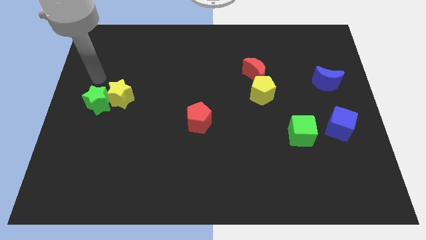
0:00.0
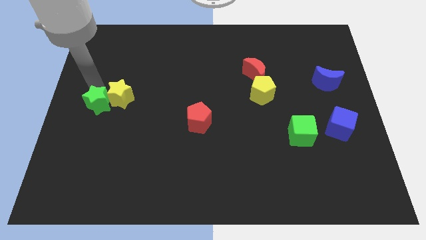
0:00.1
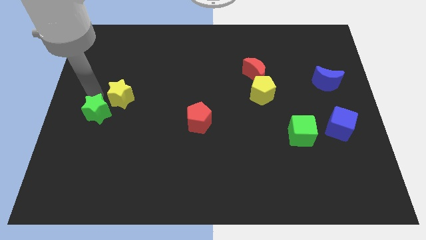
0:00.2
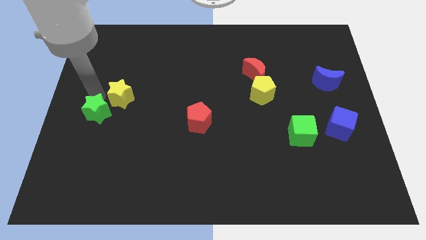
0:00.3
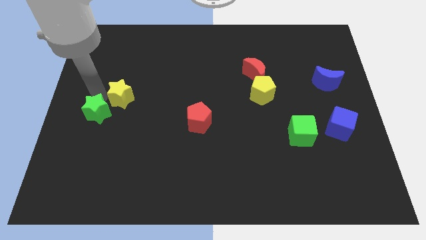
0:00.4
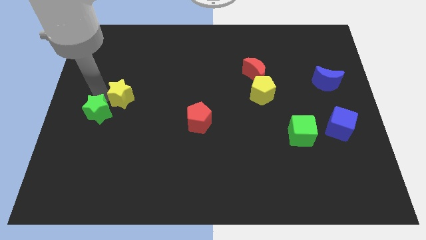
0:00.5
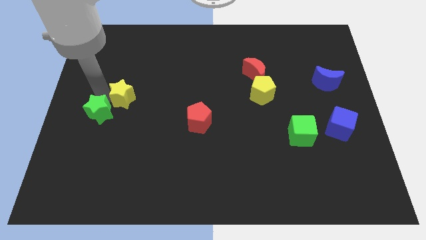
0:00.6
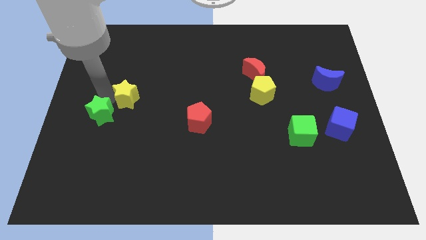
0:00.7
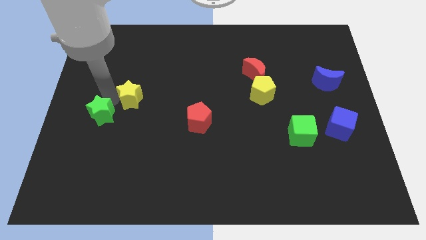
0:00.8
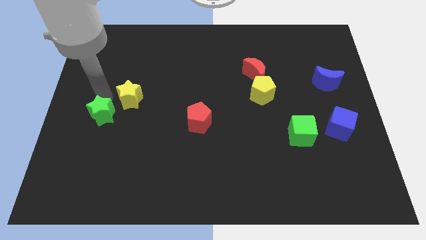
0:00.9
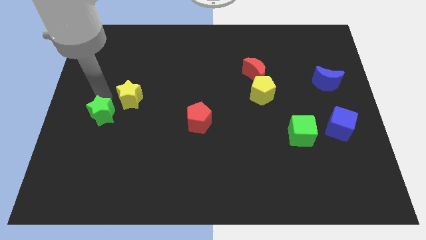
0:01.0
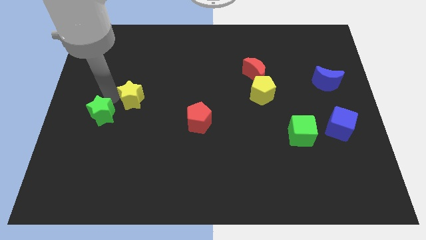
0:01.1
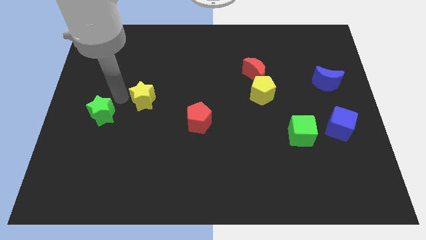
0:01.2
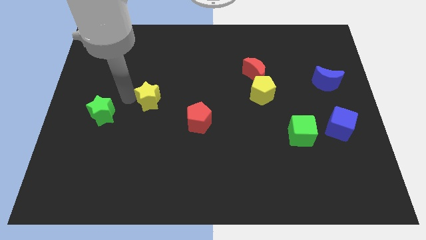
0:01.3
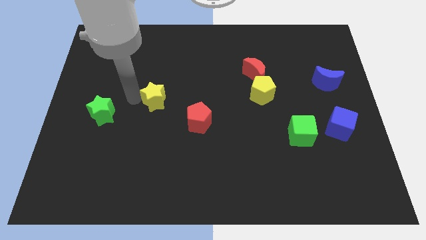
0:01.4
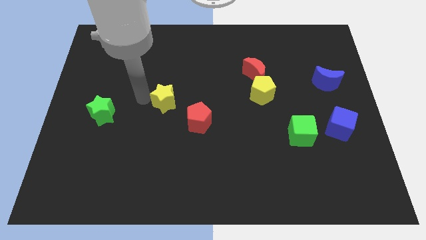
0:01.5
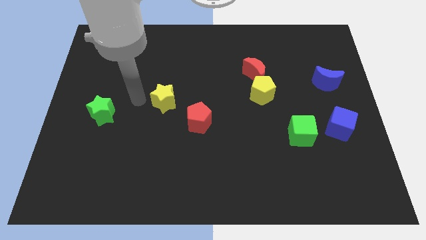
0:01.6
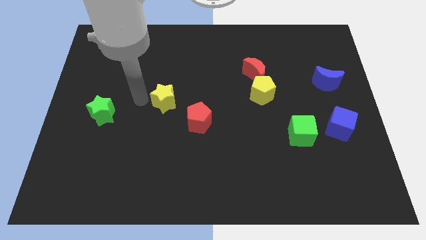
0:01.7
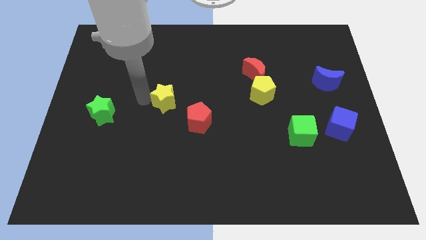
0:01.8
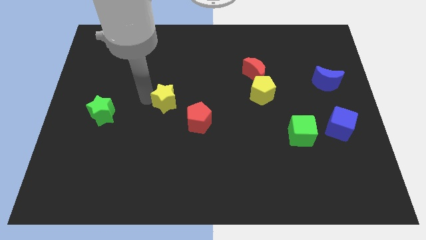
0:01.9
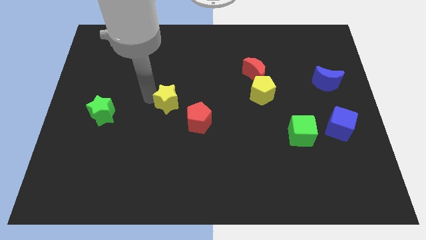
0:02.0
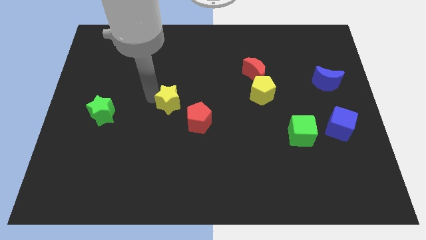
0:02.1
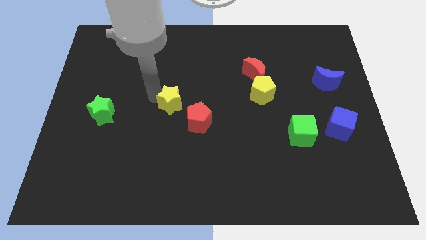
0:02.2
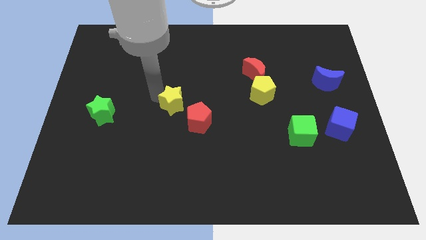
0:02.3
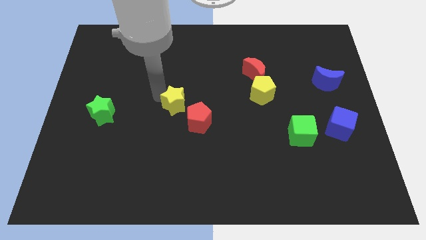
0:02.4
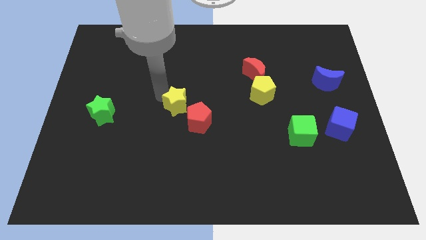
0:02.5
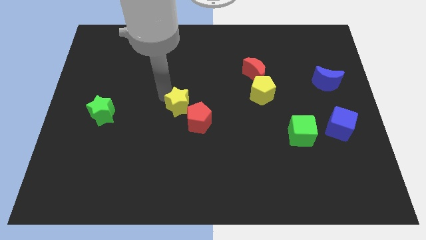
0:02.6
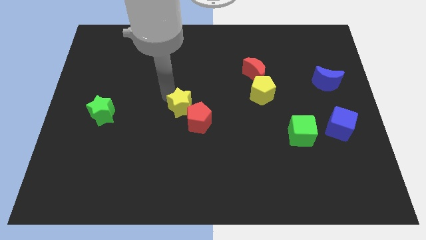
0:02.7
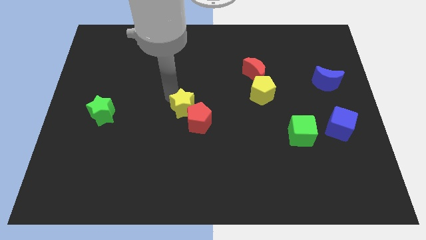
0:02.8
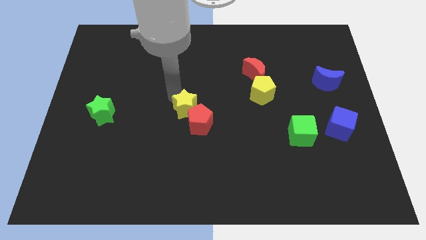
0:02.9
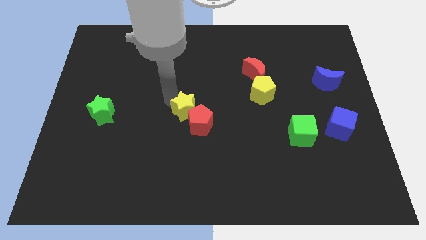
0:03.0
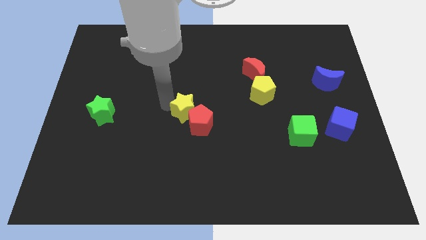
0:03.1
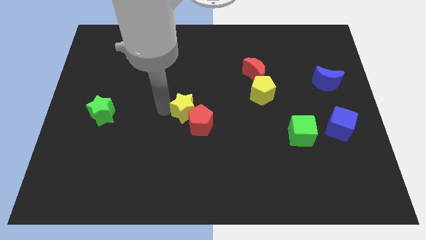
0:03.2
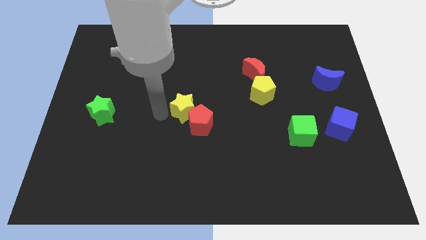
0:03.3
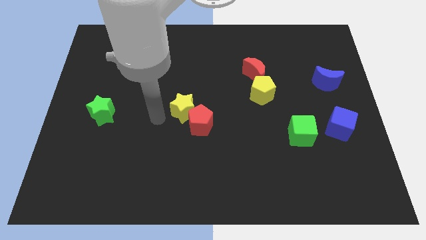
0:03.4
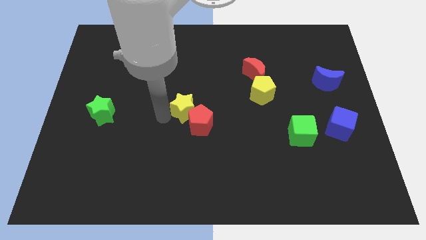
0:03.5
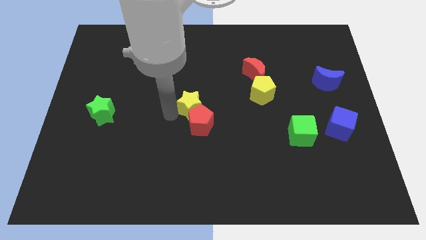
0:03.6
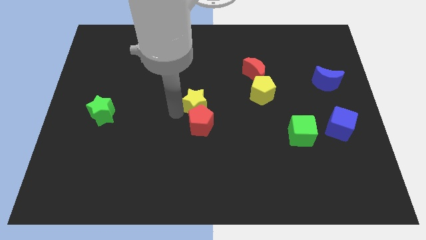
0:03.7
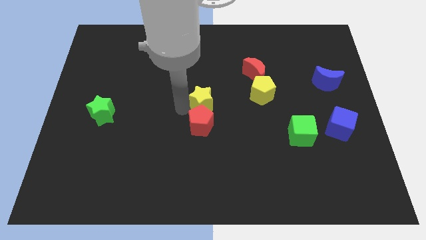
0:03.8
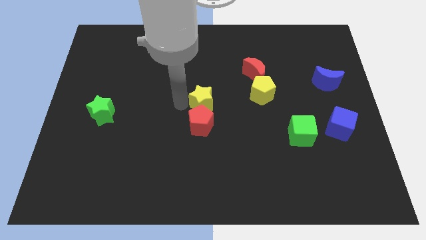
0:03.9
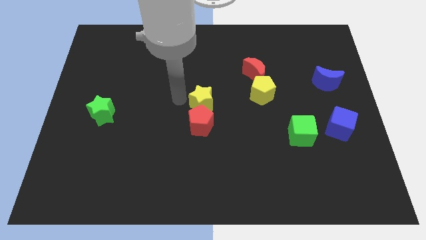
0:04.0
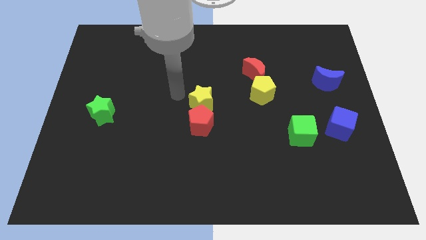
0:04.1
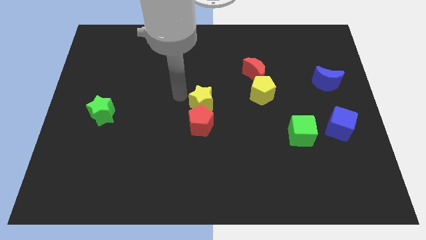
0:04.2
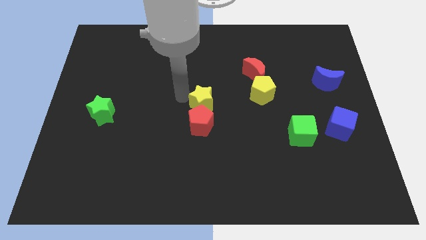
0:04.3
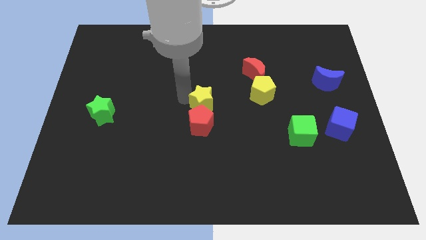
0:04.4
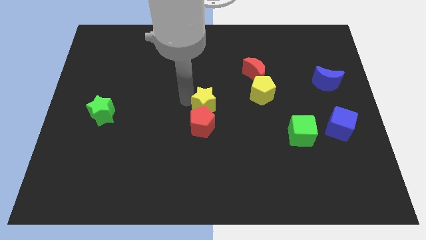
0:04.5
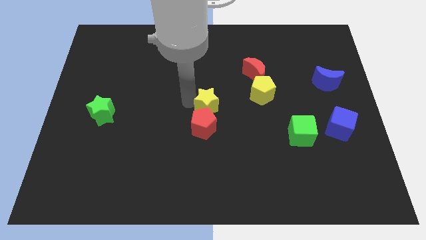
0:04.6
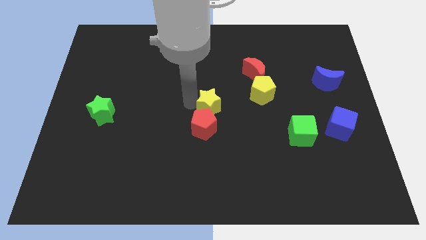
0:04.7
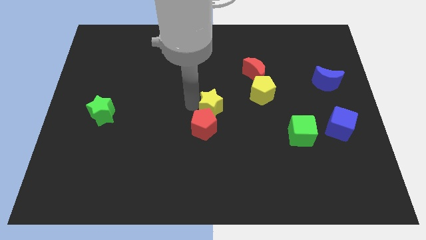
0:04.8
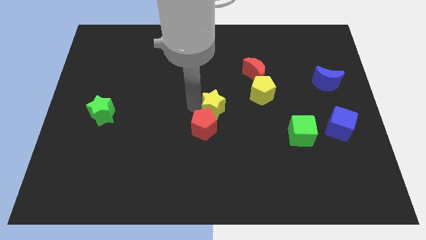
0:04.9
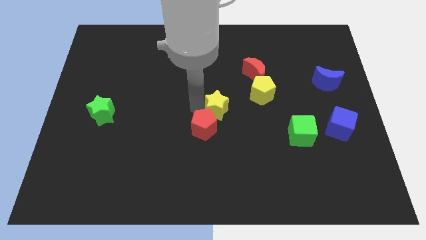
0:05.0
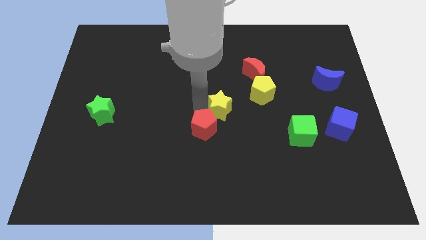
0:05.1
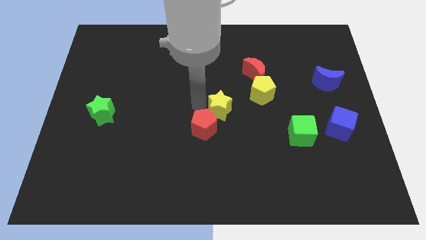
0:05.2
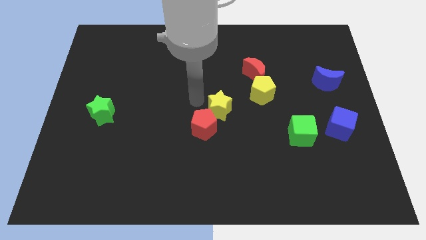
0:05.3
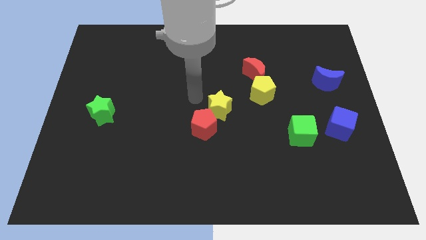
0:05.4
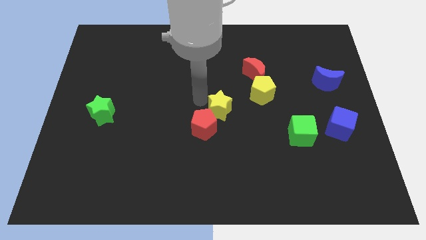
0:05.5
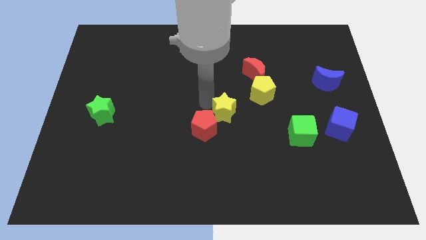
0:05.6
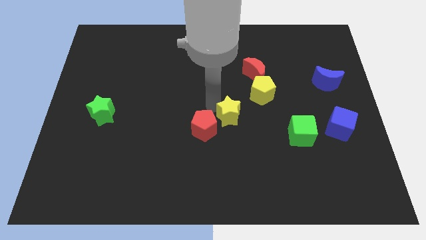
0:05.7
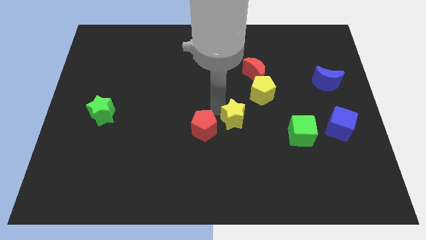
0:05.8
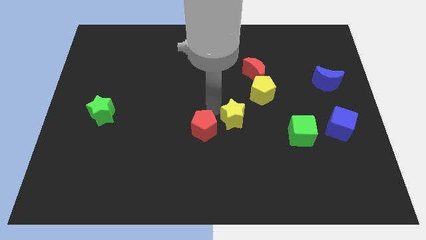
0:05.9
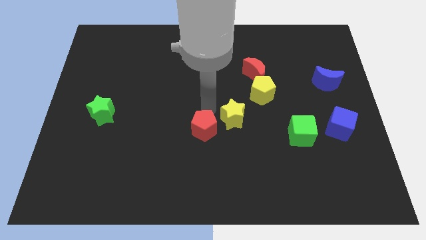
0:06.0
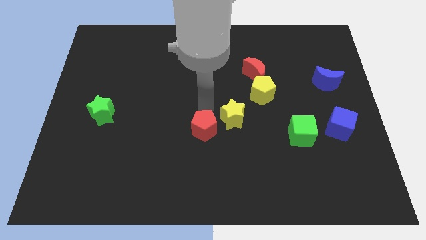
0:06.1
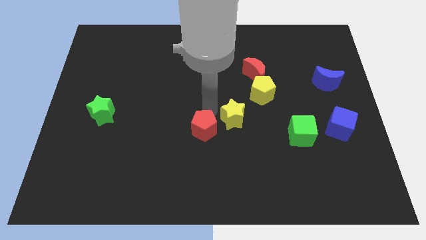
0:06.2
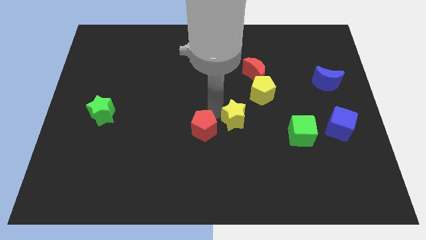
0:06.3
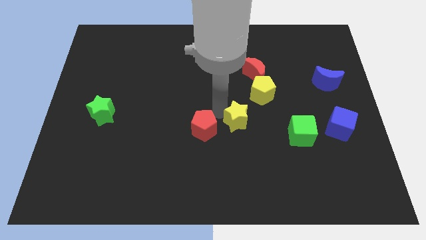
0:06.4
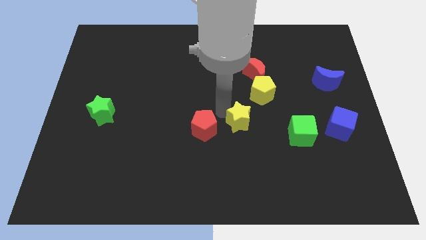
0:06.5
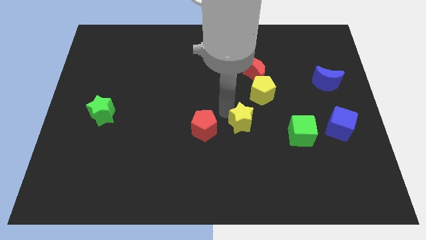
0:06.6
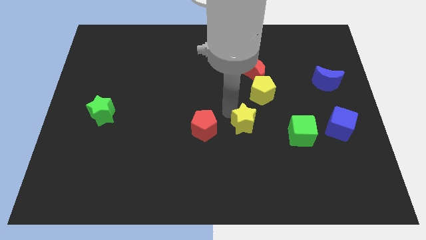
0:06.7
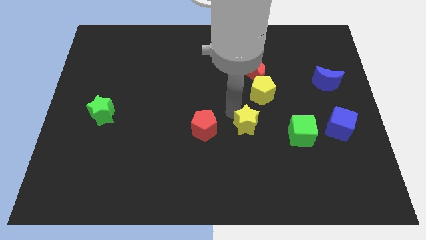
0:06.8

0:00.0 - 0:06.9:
slide the yellow star below the yellow pentagon

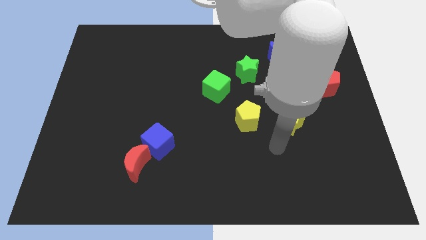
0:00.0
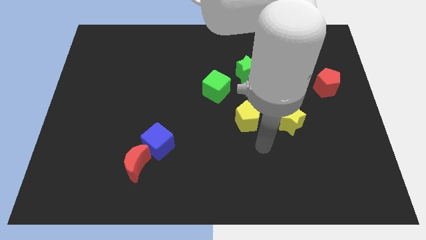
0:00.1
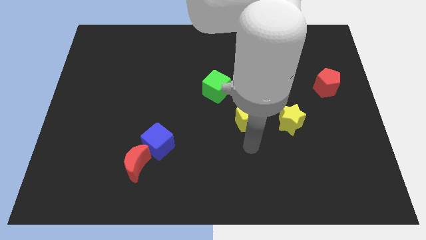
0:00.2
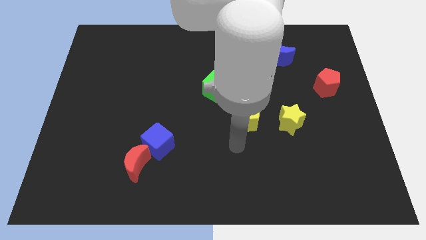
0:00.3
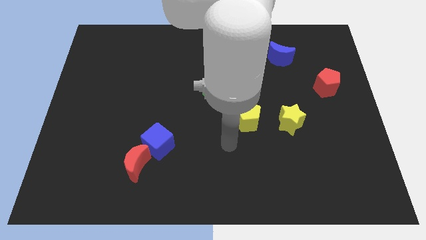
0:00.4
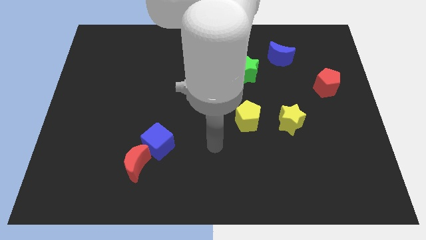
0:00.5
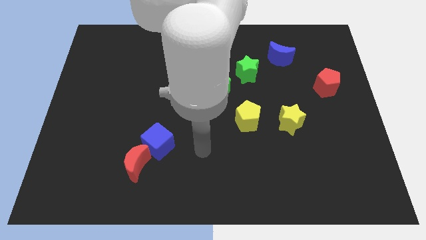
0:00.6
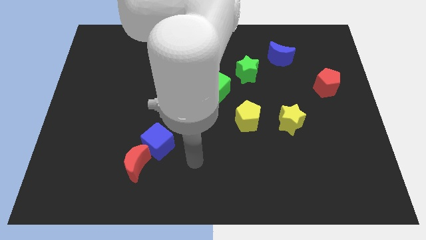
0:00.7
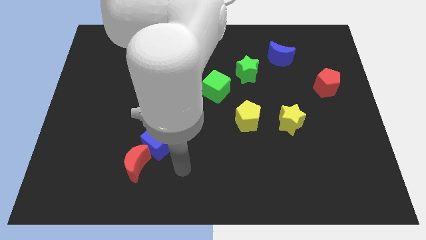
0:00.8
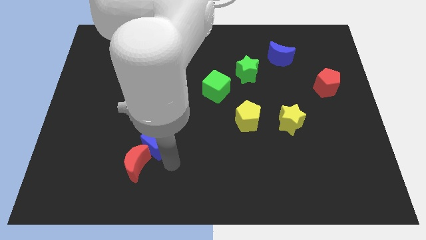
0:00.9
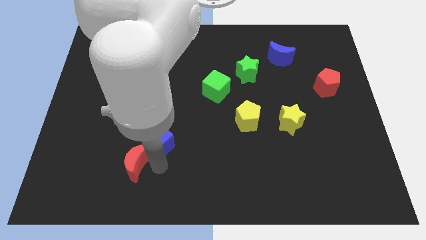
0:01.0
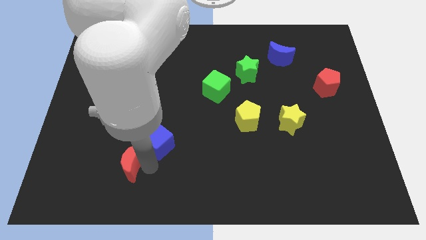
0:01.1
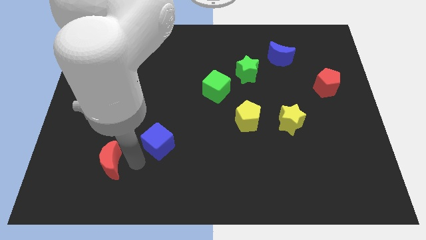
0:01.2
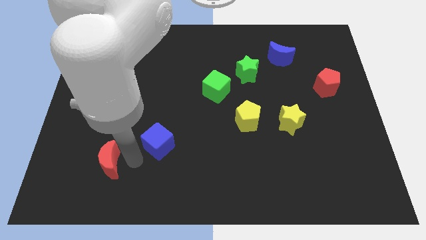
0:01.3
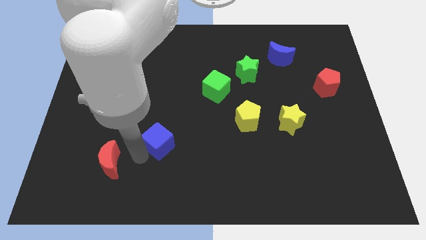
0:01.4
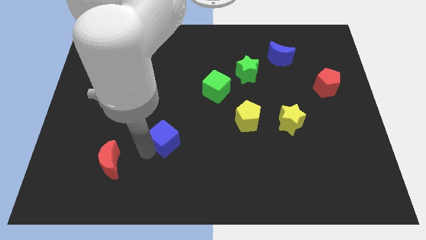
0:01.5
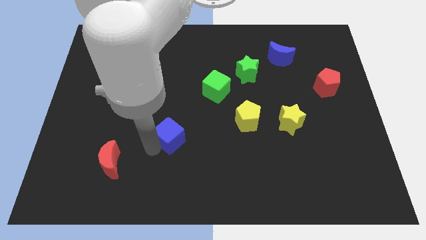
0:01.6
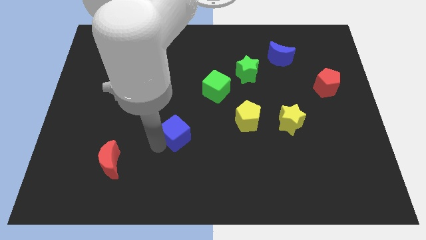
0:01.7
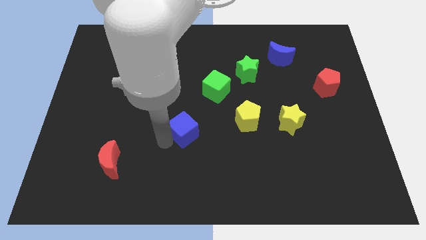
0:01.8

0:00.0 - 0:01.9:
move the blue cube to the left side of the yellow pentagon
